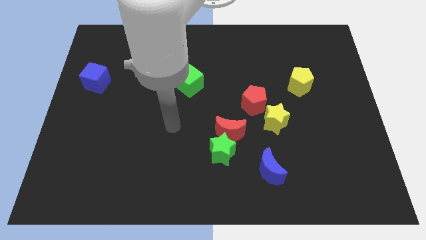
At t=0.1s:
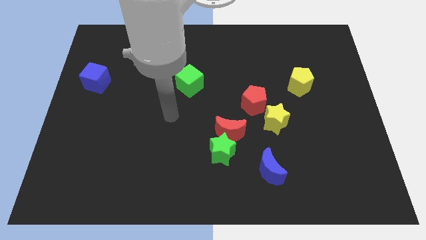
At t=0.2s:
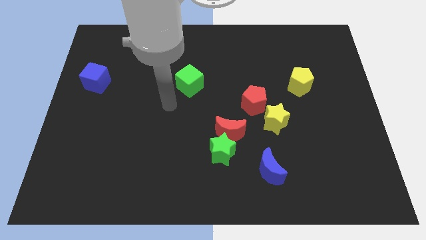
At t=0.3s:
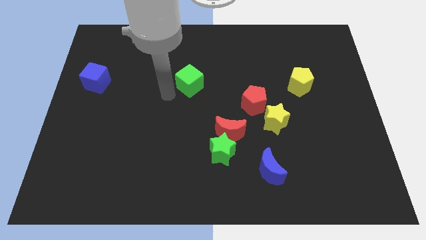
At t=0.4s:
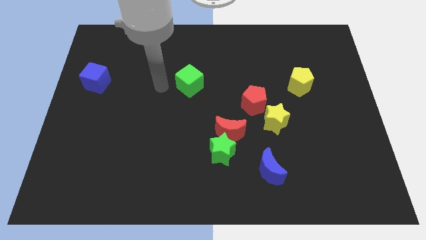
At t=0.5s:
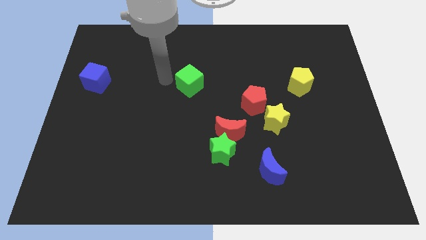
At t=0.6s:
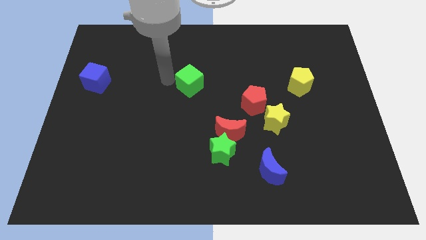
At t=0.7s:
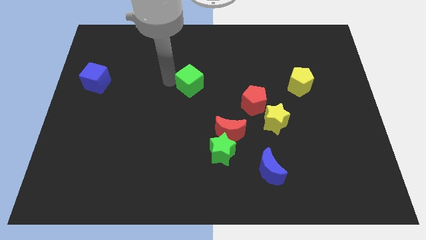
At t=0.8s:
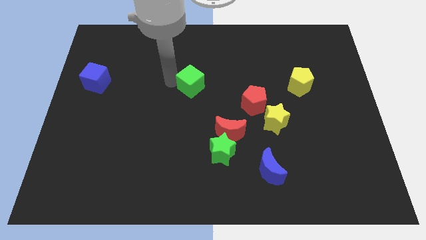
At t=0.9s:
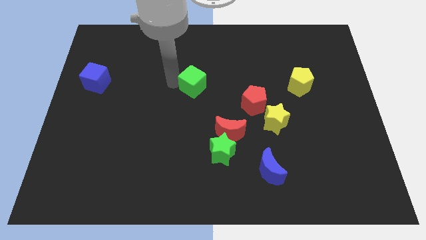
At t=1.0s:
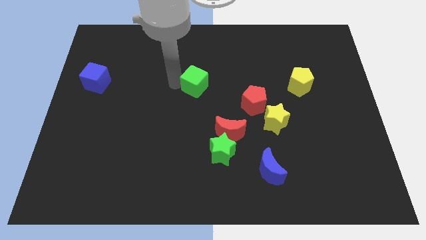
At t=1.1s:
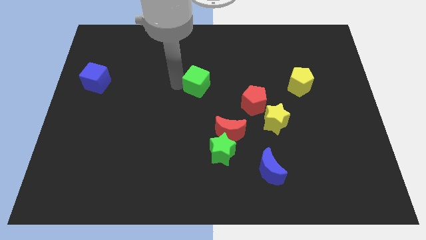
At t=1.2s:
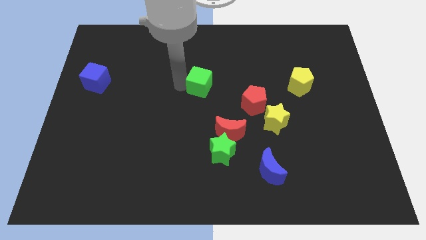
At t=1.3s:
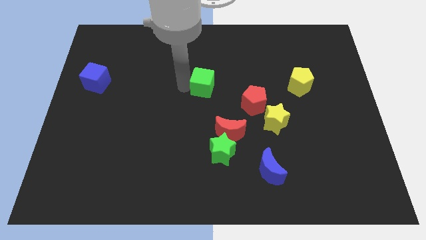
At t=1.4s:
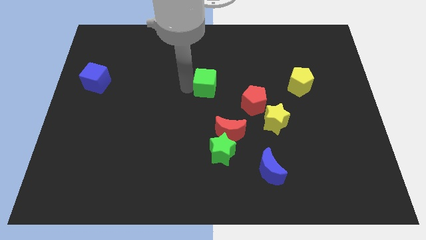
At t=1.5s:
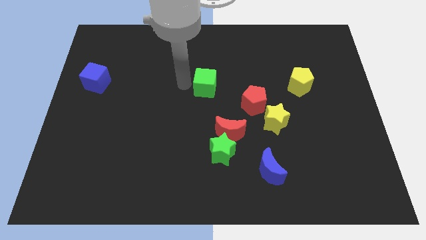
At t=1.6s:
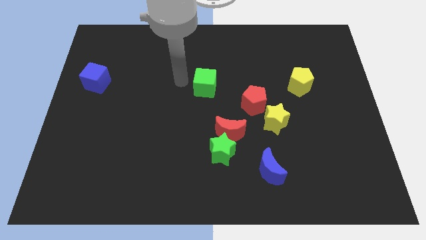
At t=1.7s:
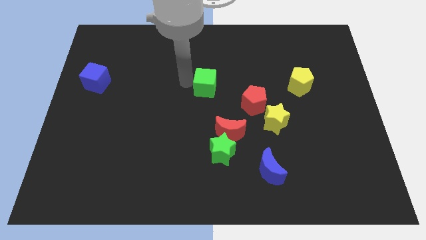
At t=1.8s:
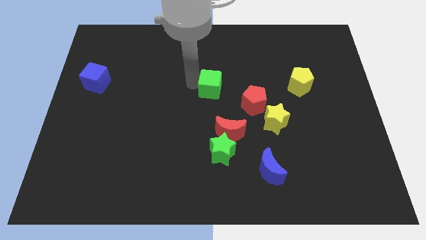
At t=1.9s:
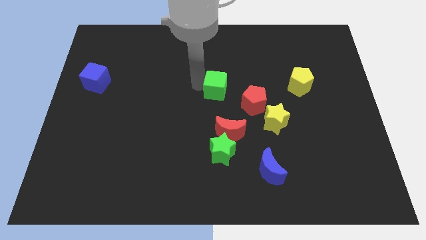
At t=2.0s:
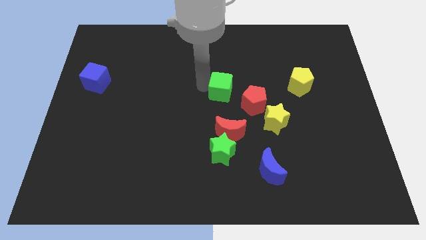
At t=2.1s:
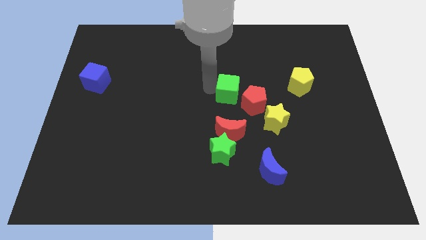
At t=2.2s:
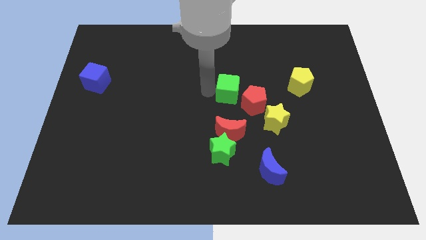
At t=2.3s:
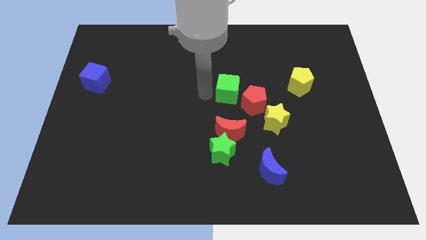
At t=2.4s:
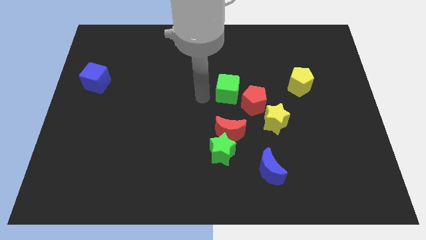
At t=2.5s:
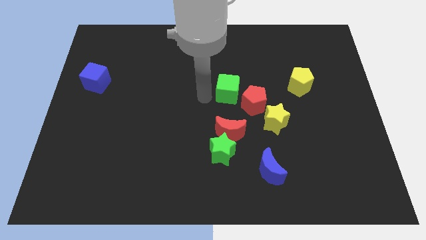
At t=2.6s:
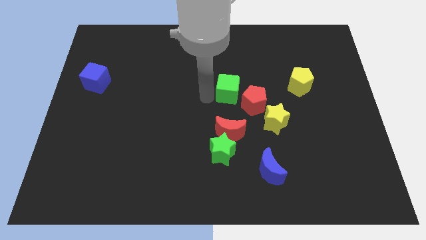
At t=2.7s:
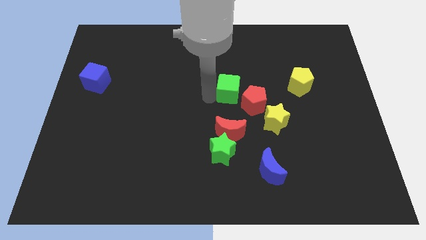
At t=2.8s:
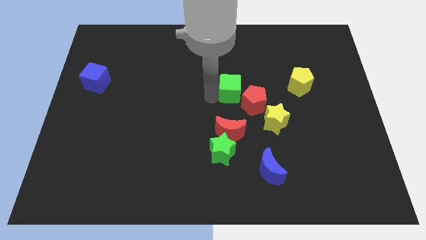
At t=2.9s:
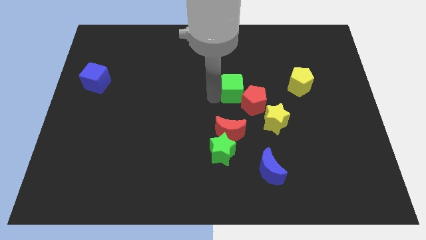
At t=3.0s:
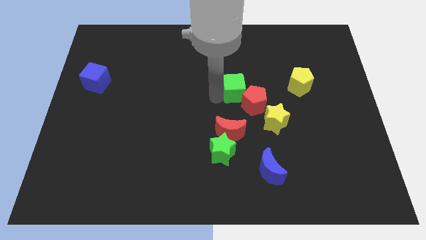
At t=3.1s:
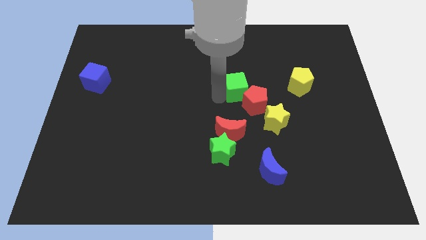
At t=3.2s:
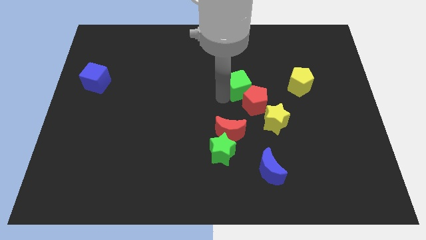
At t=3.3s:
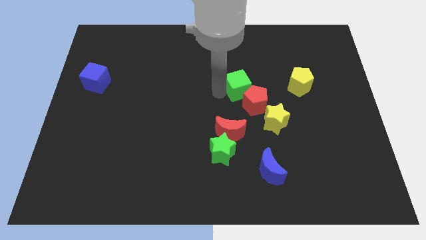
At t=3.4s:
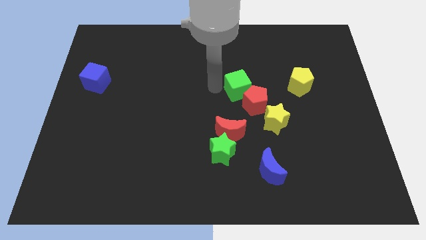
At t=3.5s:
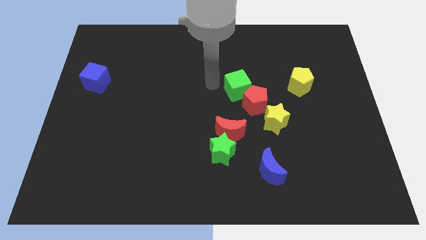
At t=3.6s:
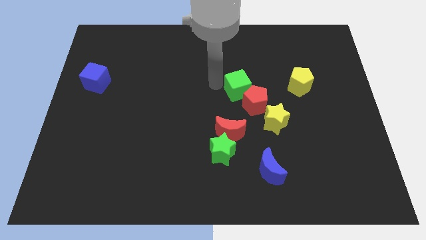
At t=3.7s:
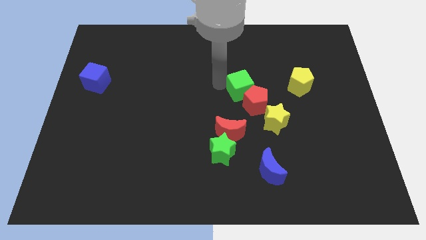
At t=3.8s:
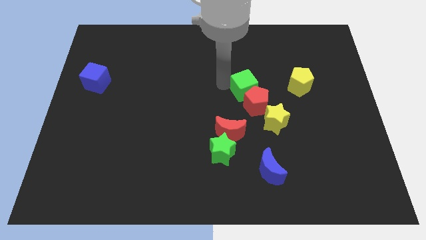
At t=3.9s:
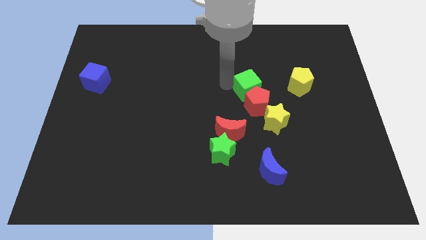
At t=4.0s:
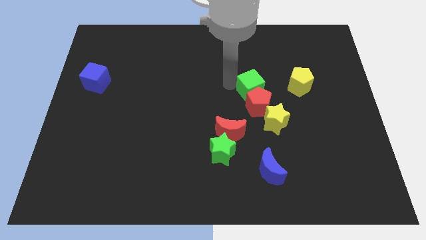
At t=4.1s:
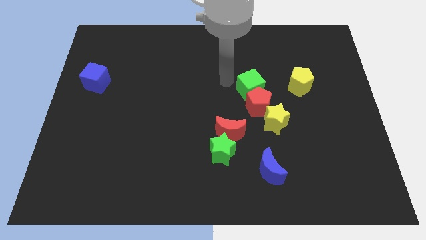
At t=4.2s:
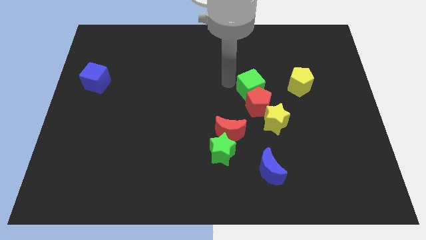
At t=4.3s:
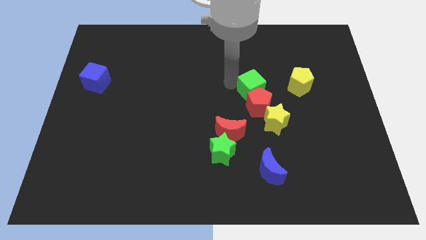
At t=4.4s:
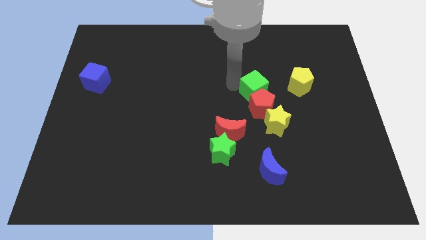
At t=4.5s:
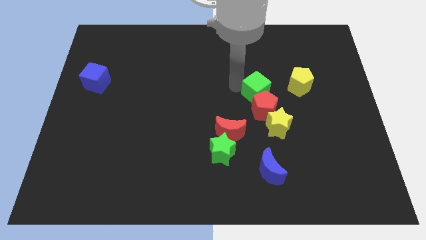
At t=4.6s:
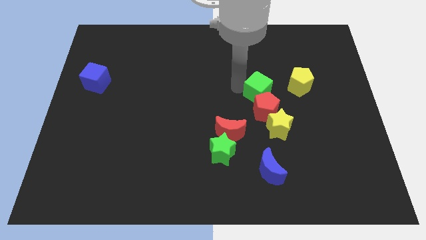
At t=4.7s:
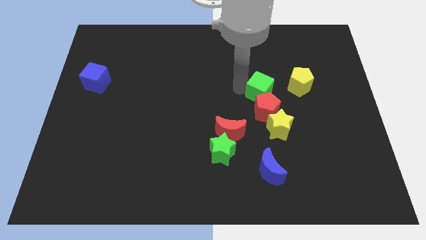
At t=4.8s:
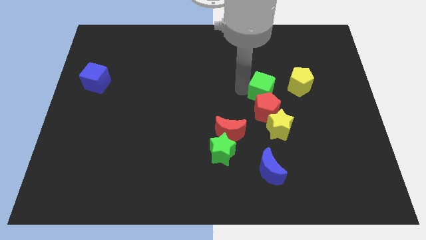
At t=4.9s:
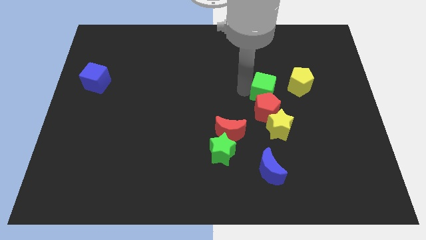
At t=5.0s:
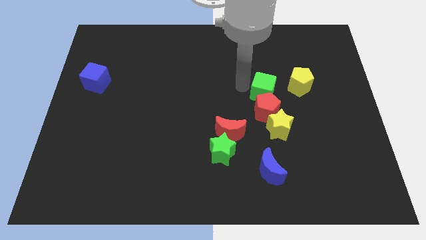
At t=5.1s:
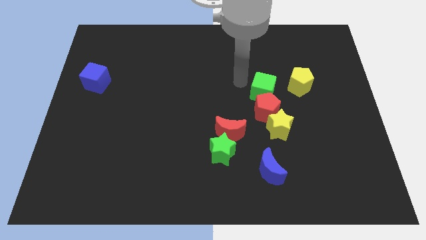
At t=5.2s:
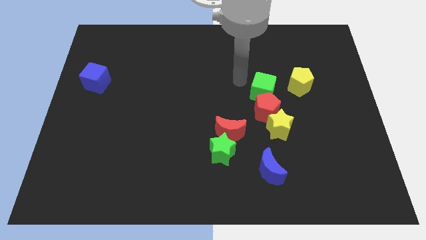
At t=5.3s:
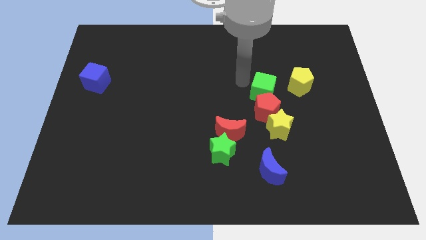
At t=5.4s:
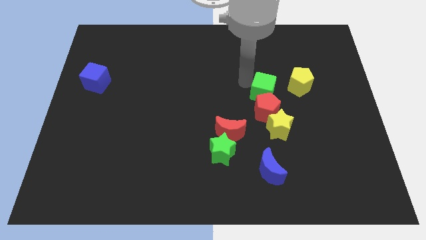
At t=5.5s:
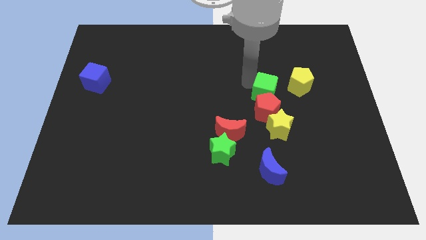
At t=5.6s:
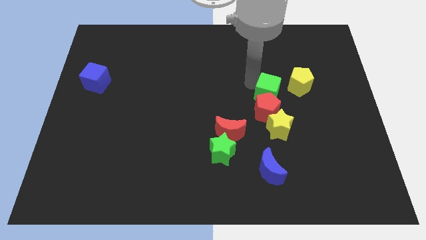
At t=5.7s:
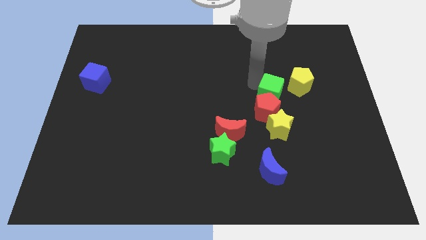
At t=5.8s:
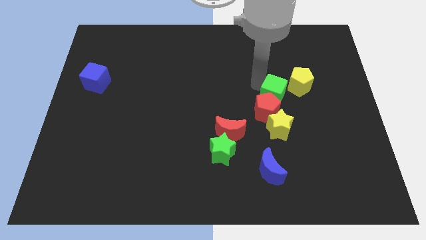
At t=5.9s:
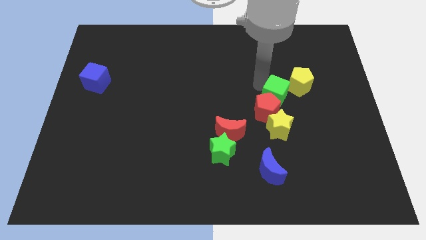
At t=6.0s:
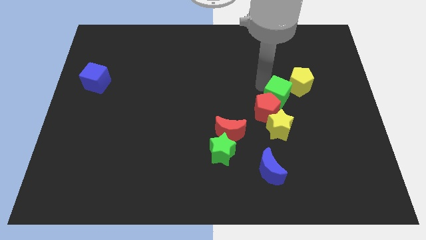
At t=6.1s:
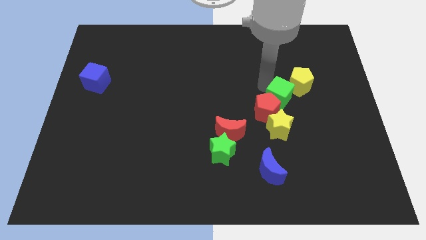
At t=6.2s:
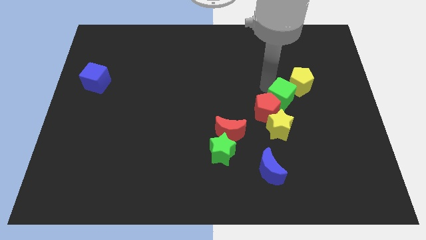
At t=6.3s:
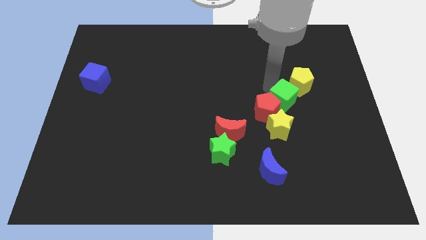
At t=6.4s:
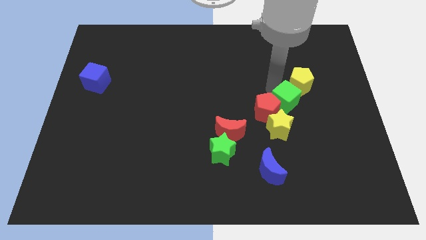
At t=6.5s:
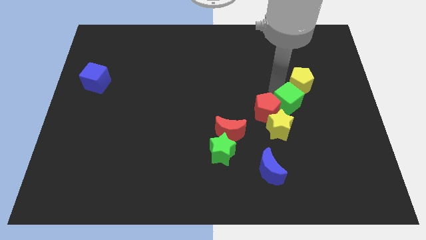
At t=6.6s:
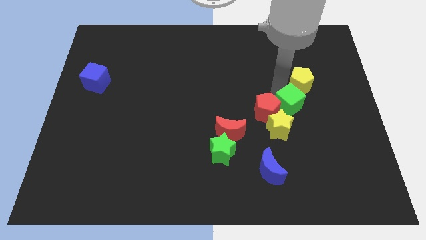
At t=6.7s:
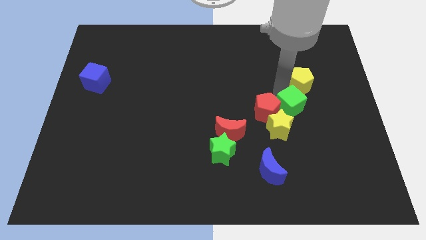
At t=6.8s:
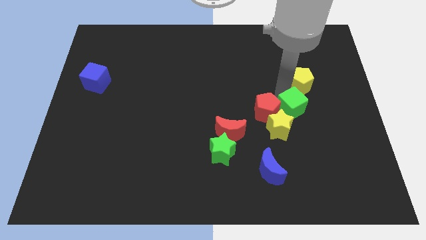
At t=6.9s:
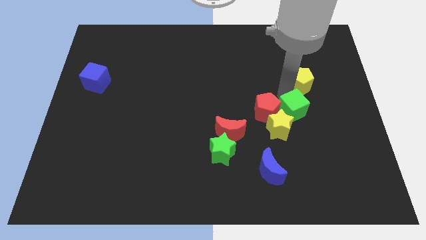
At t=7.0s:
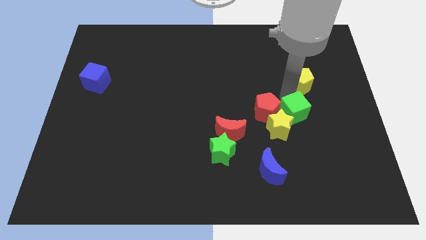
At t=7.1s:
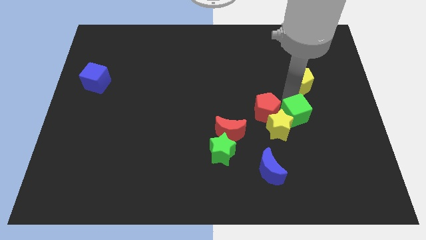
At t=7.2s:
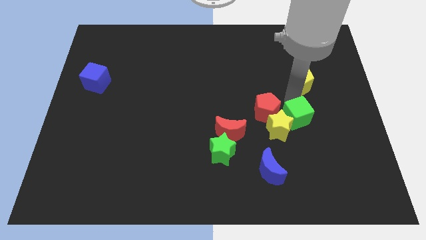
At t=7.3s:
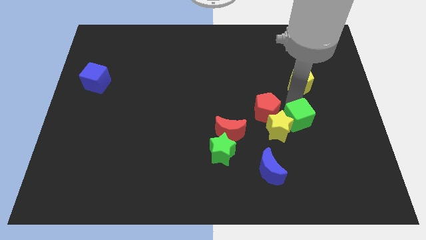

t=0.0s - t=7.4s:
move the green cube downwards and to the right diagonally

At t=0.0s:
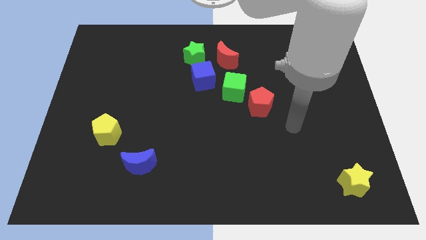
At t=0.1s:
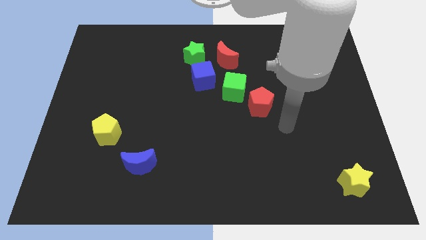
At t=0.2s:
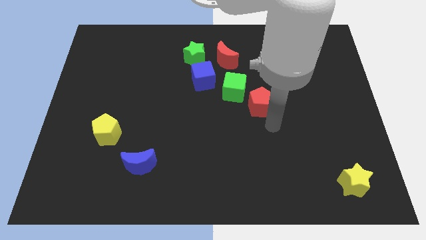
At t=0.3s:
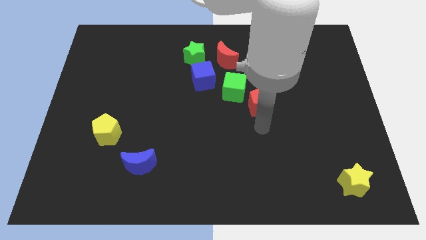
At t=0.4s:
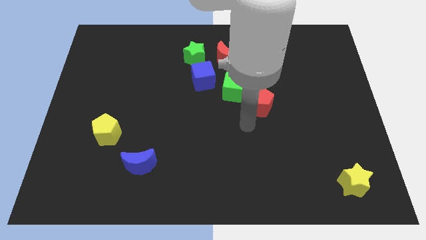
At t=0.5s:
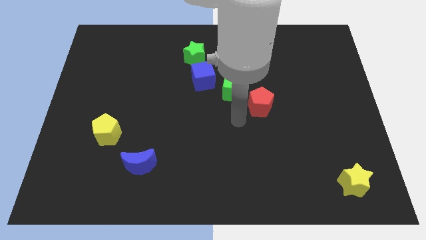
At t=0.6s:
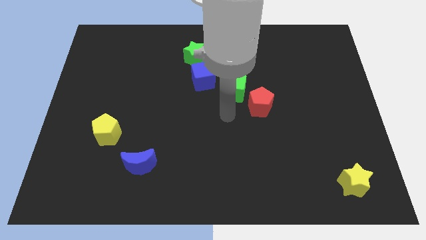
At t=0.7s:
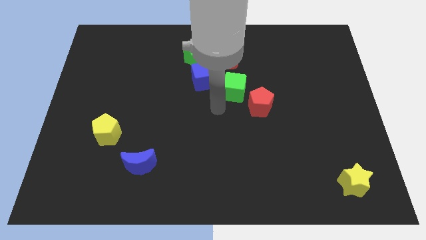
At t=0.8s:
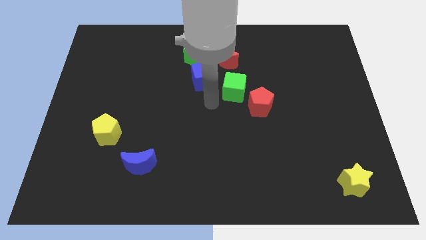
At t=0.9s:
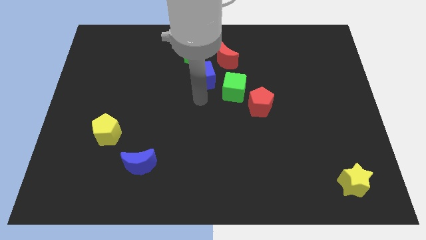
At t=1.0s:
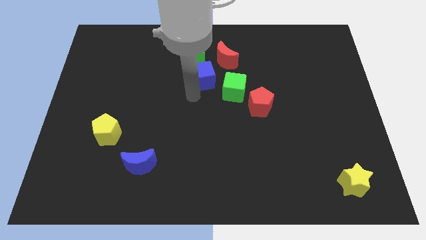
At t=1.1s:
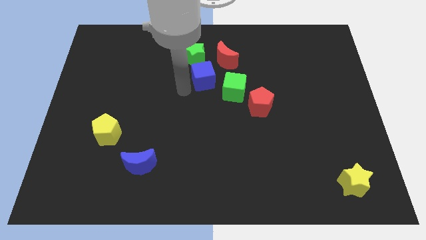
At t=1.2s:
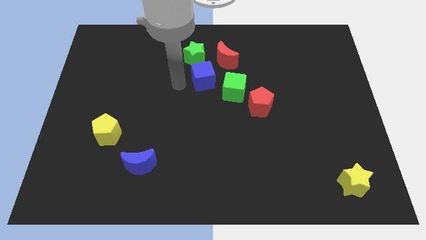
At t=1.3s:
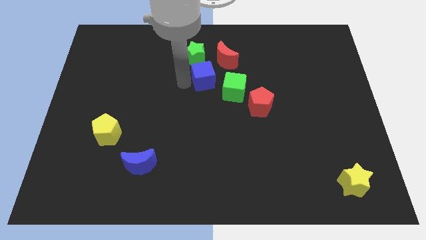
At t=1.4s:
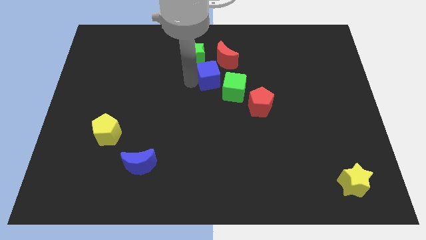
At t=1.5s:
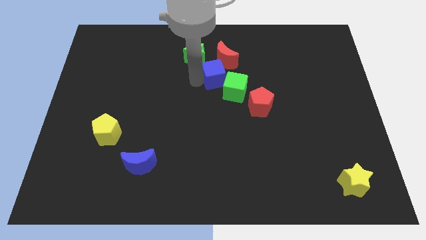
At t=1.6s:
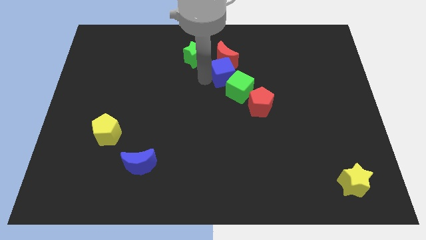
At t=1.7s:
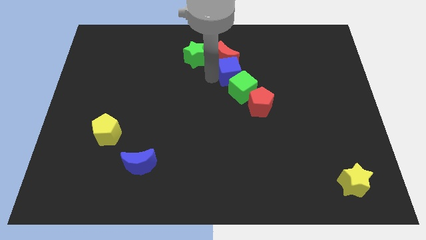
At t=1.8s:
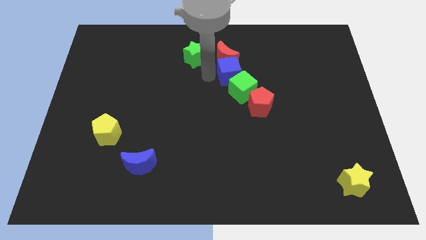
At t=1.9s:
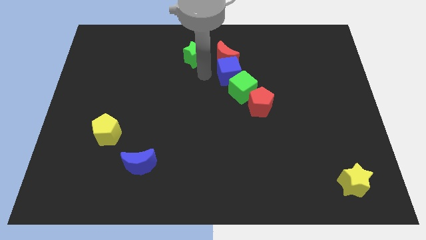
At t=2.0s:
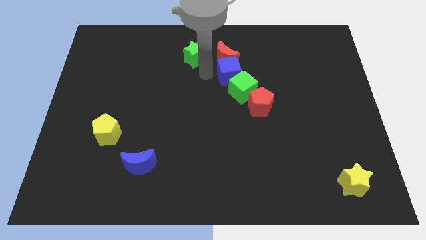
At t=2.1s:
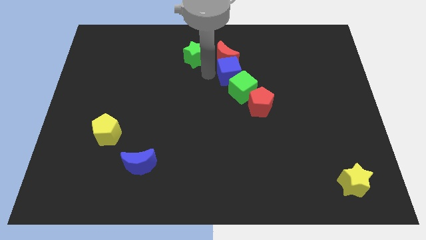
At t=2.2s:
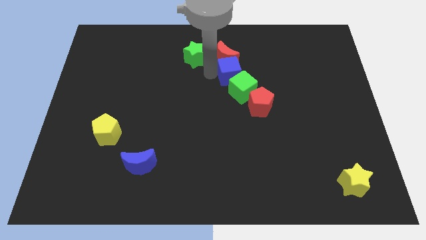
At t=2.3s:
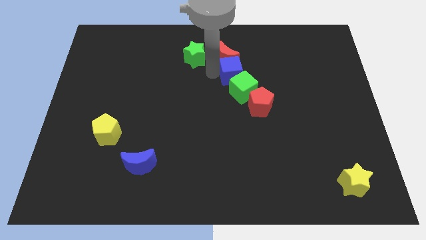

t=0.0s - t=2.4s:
slightly slide the blue cube to the right
